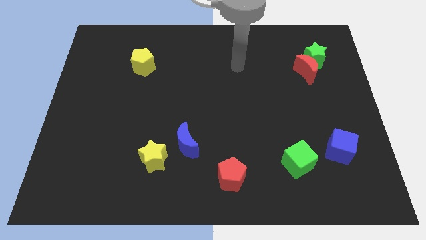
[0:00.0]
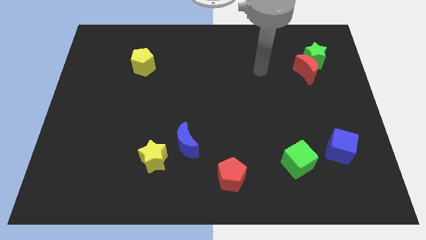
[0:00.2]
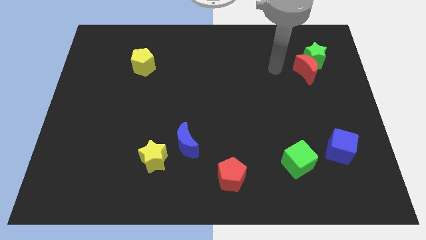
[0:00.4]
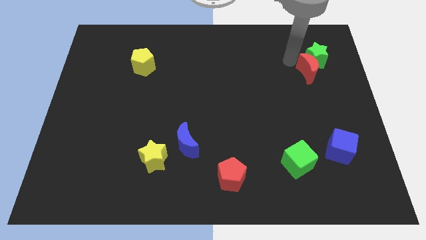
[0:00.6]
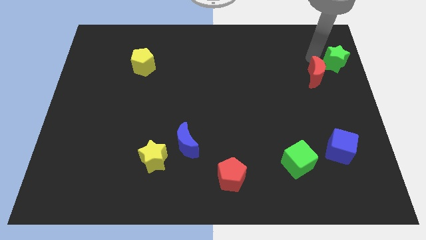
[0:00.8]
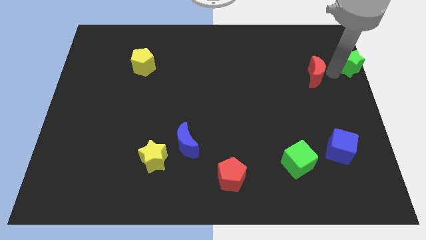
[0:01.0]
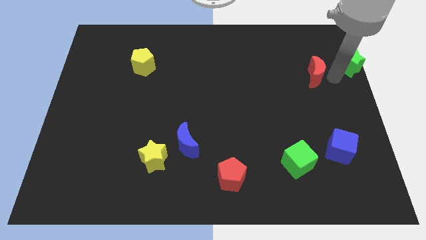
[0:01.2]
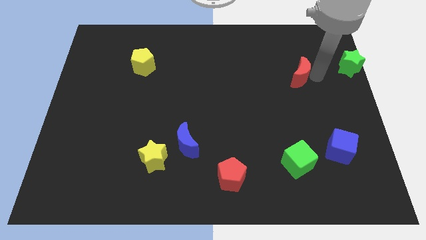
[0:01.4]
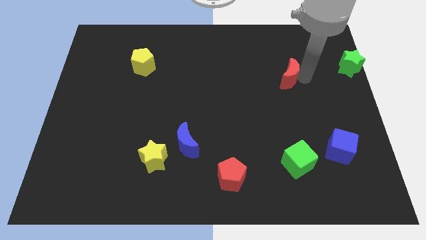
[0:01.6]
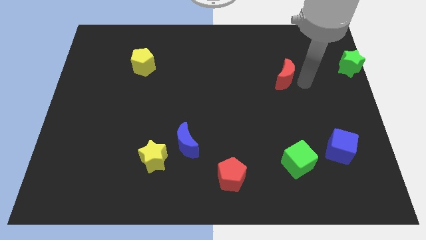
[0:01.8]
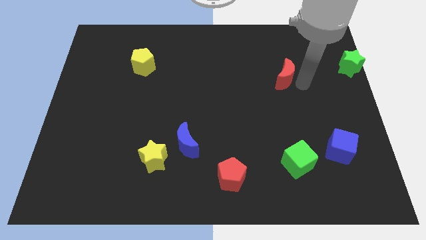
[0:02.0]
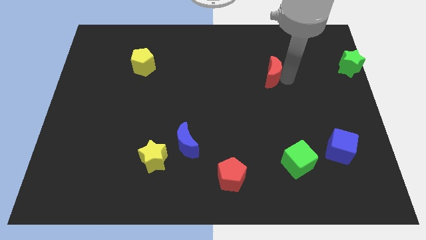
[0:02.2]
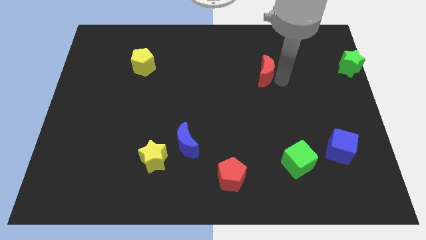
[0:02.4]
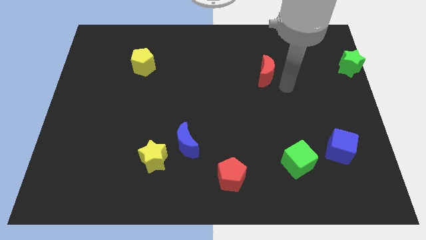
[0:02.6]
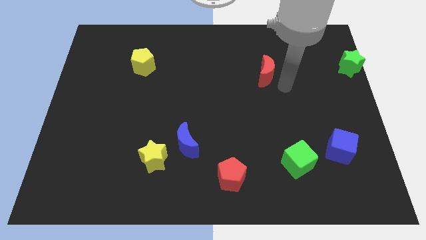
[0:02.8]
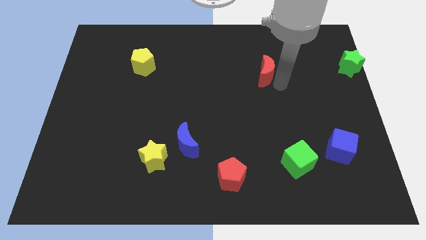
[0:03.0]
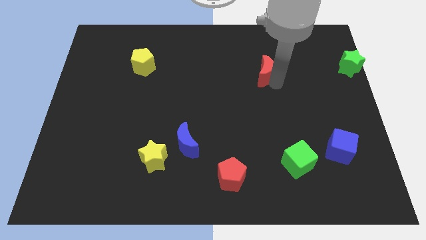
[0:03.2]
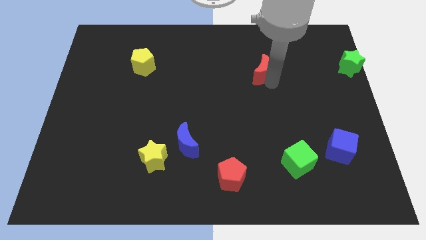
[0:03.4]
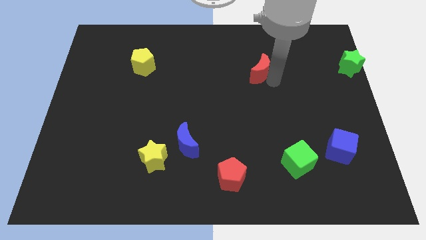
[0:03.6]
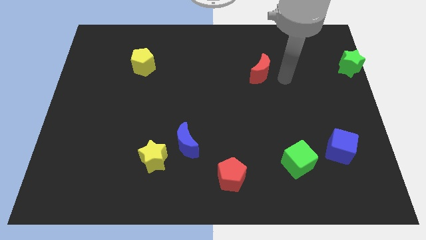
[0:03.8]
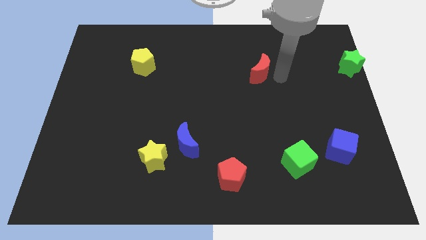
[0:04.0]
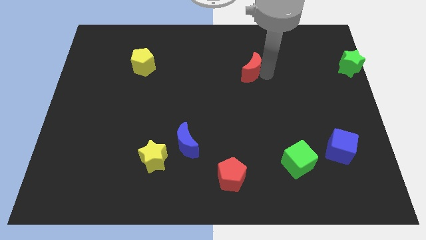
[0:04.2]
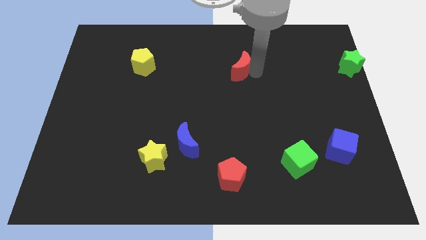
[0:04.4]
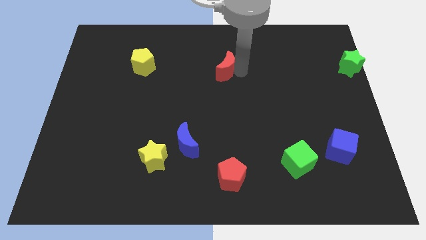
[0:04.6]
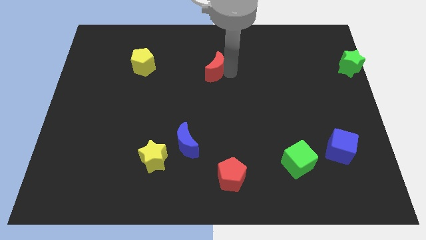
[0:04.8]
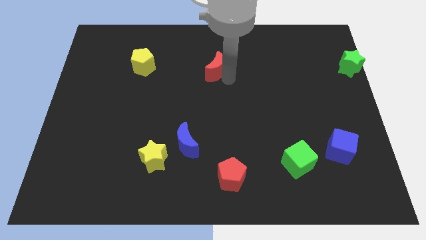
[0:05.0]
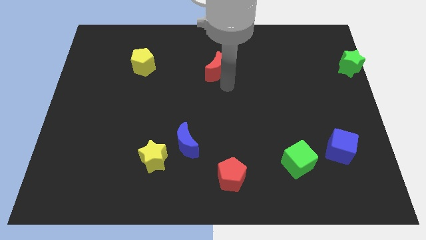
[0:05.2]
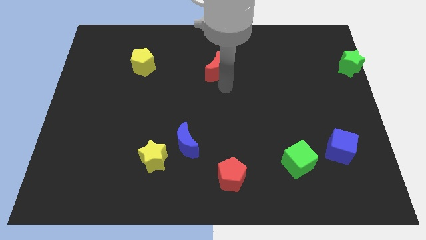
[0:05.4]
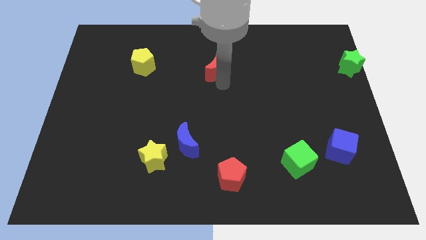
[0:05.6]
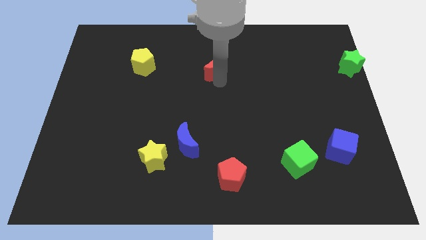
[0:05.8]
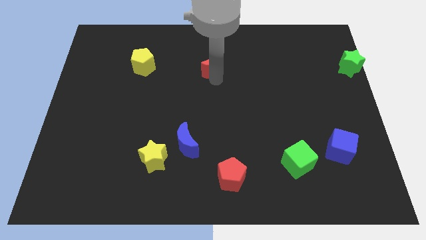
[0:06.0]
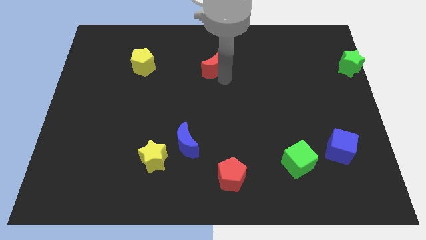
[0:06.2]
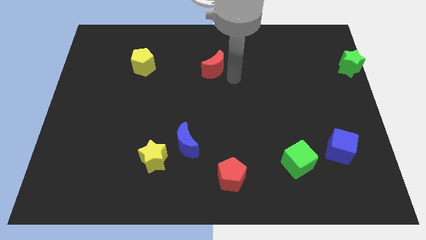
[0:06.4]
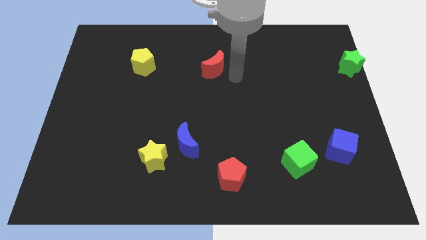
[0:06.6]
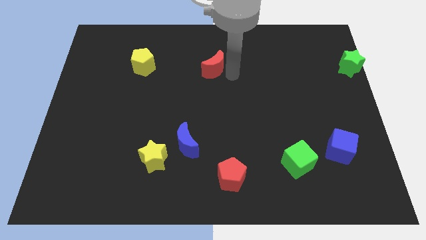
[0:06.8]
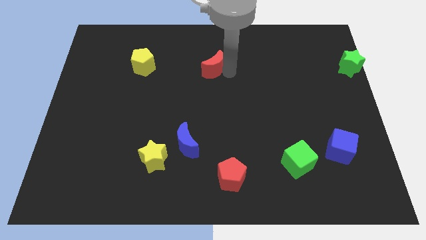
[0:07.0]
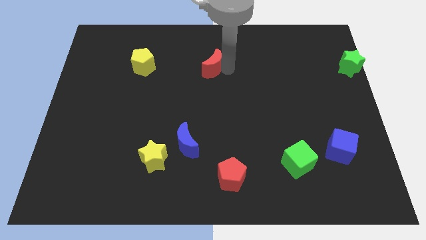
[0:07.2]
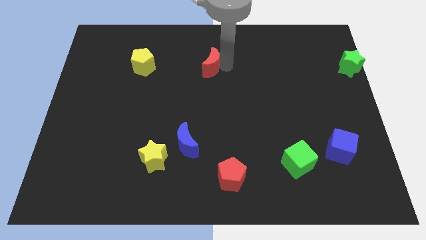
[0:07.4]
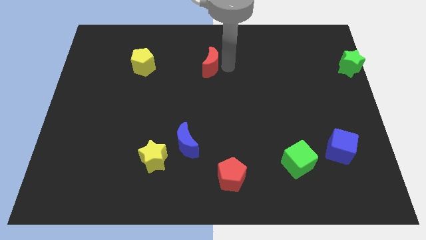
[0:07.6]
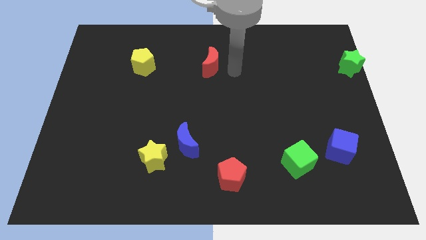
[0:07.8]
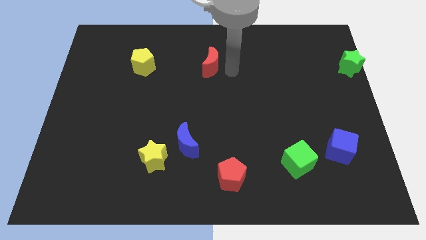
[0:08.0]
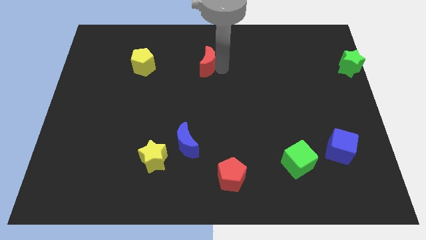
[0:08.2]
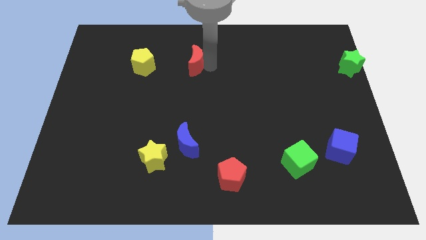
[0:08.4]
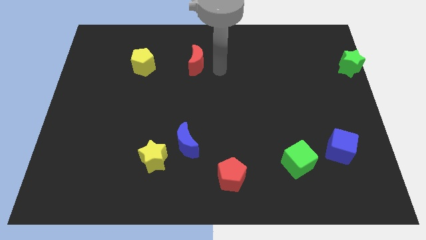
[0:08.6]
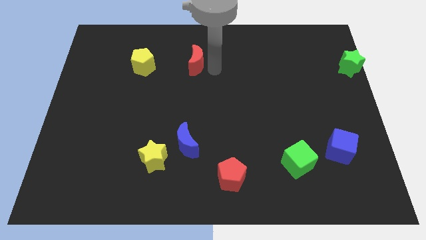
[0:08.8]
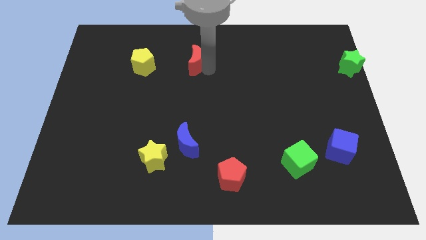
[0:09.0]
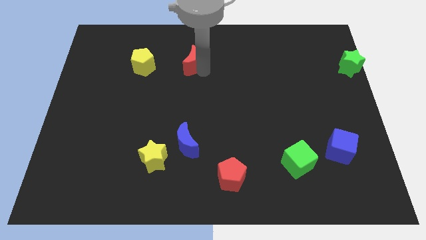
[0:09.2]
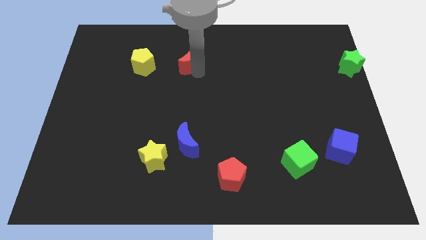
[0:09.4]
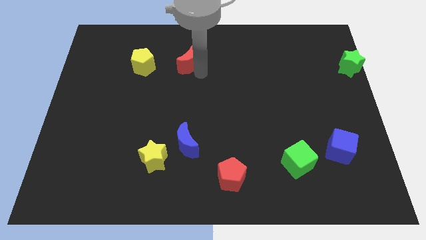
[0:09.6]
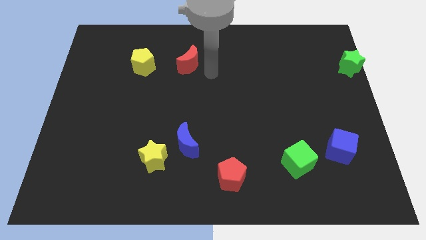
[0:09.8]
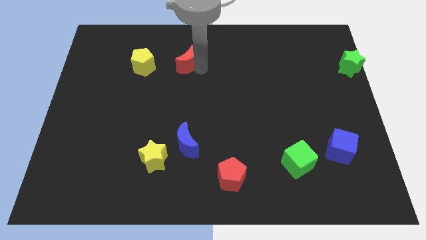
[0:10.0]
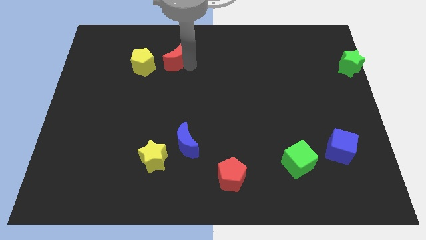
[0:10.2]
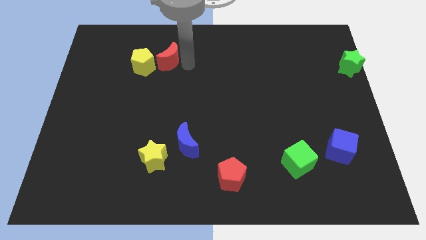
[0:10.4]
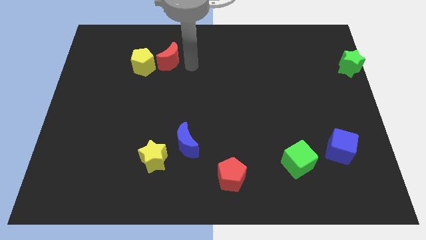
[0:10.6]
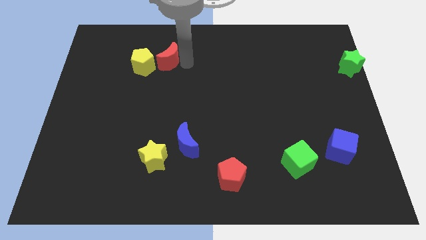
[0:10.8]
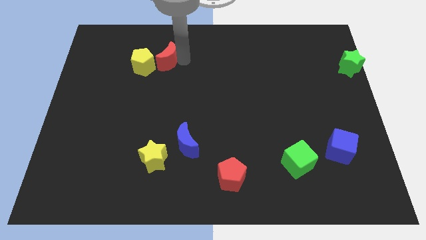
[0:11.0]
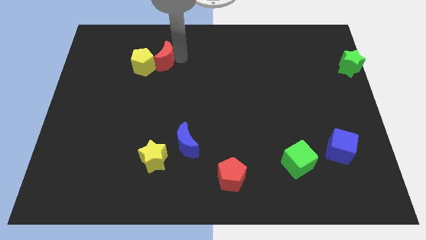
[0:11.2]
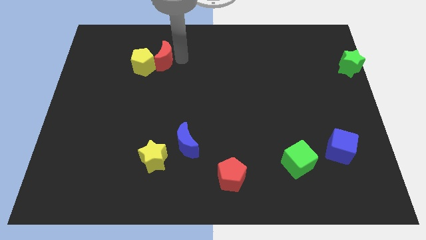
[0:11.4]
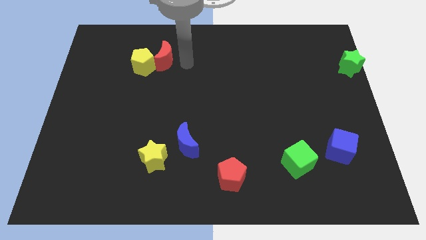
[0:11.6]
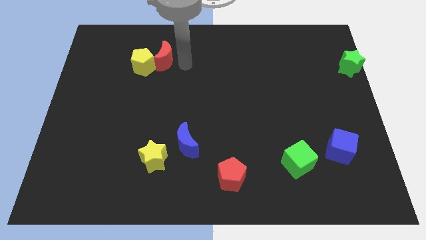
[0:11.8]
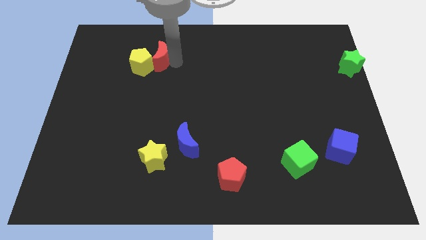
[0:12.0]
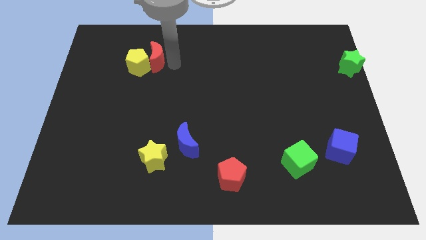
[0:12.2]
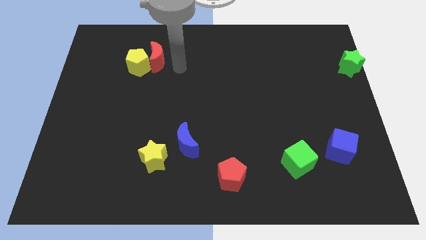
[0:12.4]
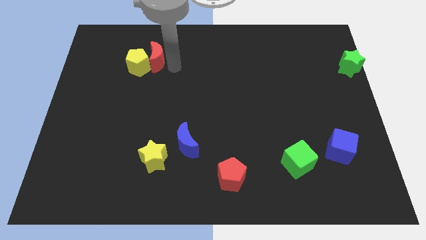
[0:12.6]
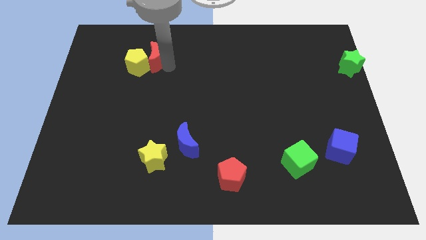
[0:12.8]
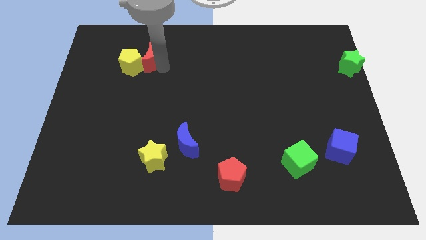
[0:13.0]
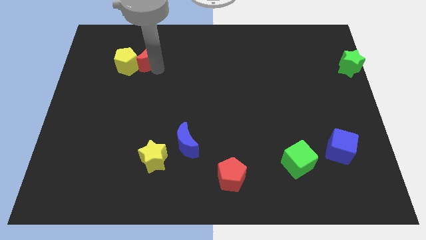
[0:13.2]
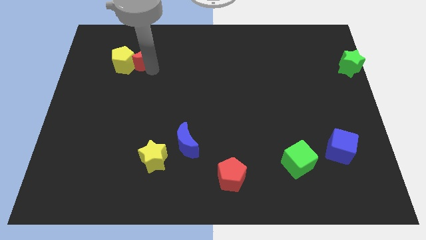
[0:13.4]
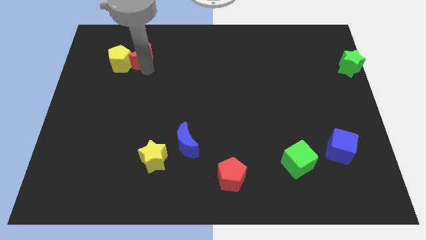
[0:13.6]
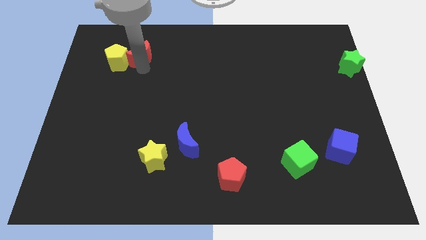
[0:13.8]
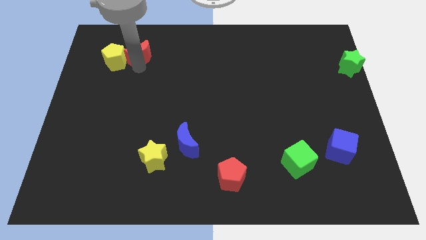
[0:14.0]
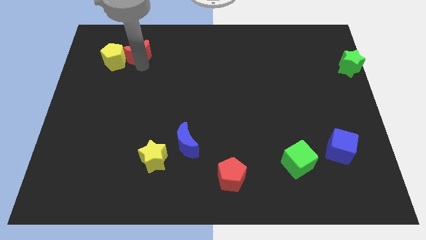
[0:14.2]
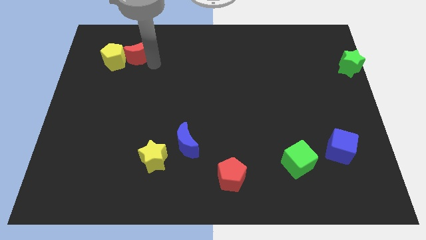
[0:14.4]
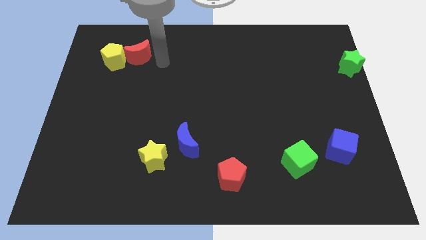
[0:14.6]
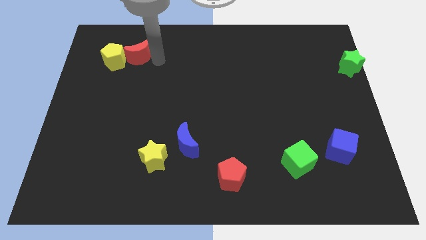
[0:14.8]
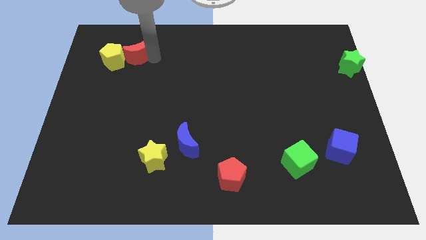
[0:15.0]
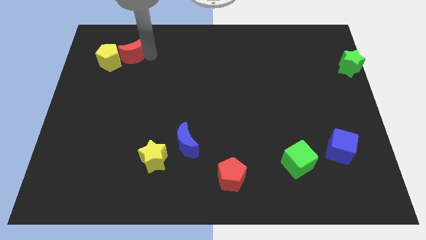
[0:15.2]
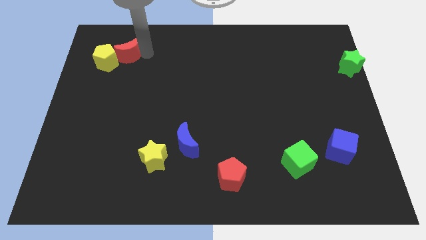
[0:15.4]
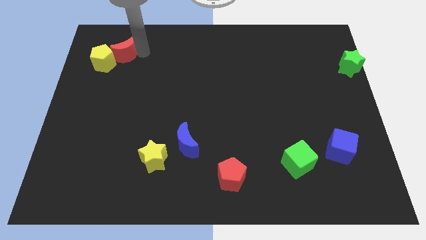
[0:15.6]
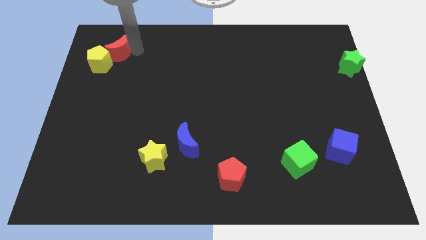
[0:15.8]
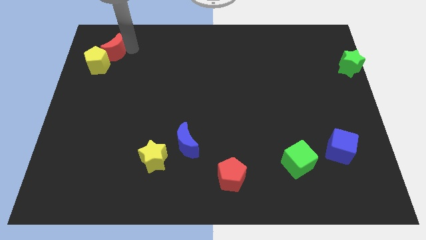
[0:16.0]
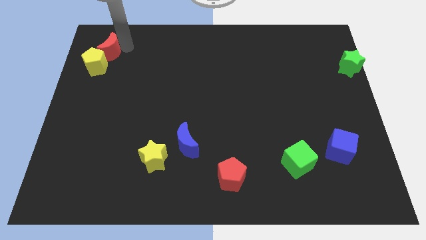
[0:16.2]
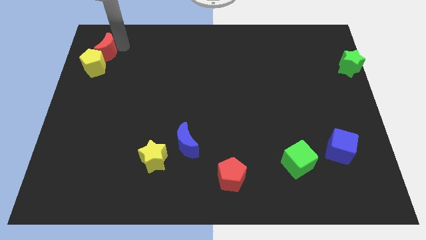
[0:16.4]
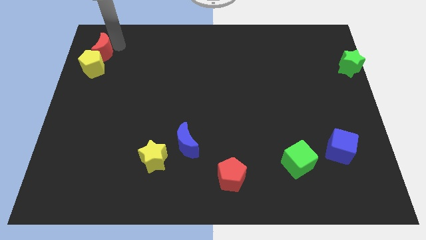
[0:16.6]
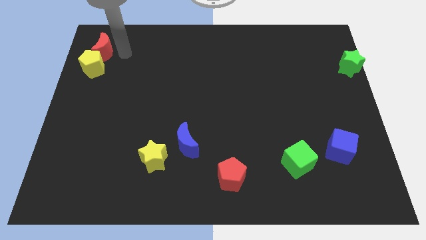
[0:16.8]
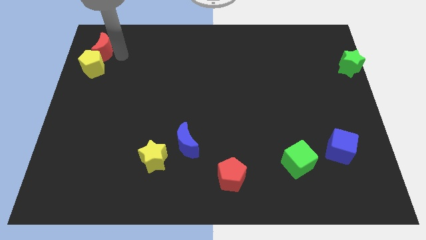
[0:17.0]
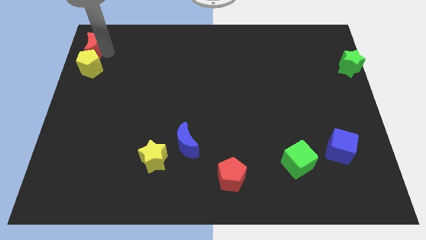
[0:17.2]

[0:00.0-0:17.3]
put the red moon to the top left corner
